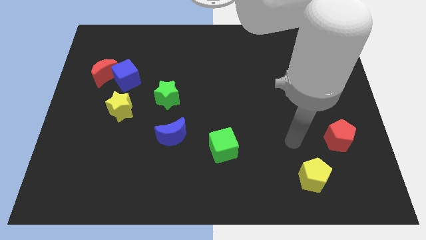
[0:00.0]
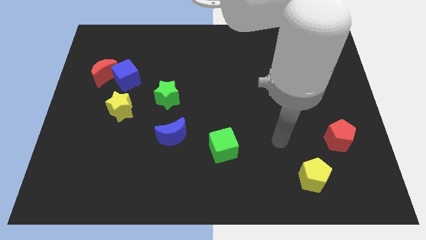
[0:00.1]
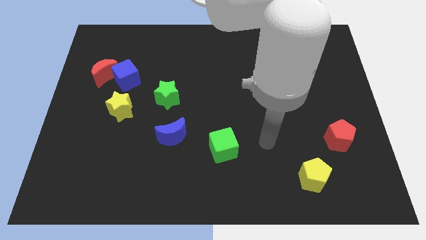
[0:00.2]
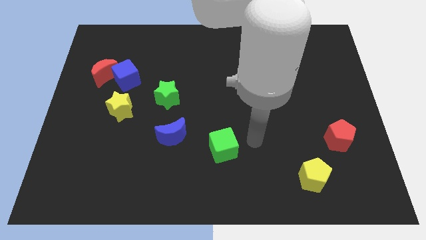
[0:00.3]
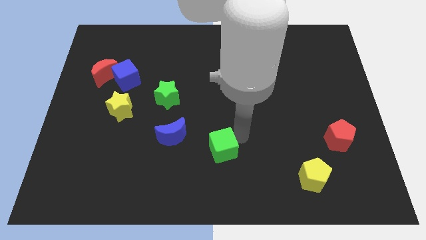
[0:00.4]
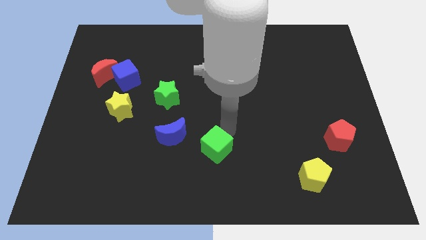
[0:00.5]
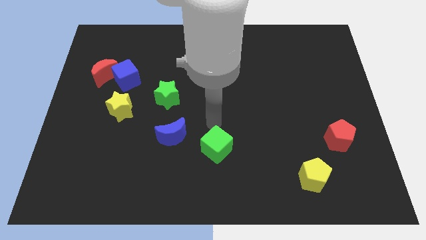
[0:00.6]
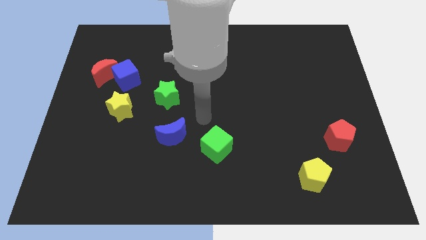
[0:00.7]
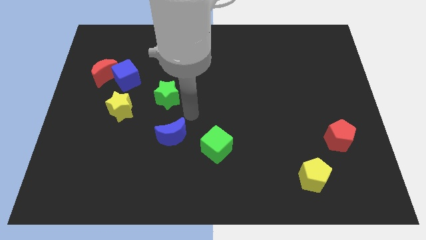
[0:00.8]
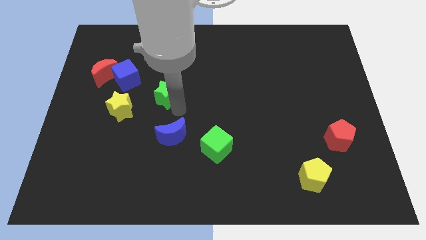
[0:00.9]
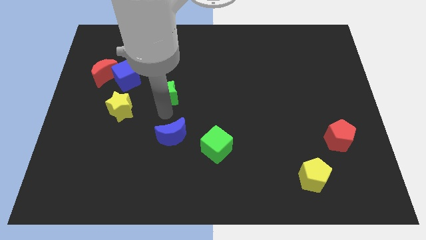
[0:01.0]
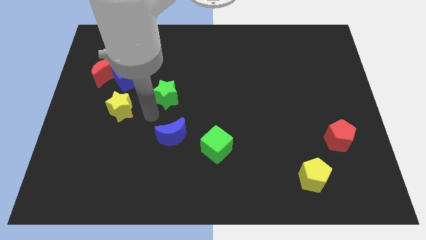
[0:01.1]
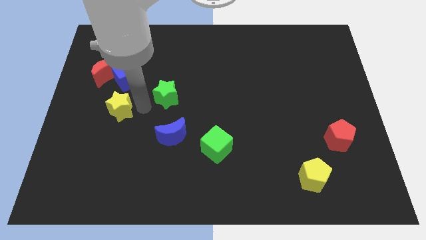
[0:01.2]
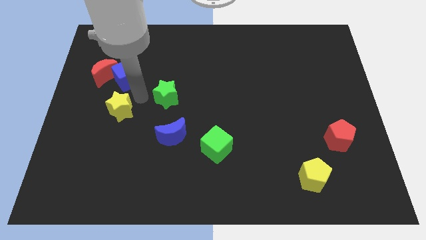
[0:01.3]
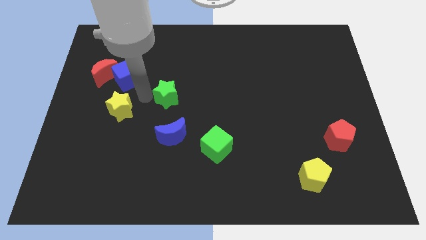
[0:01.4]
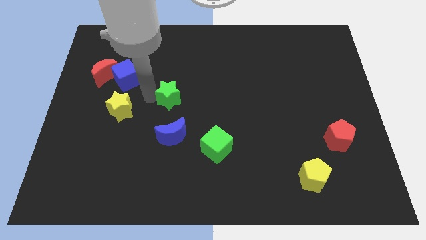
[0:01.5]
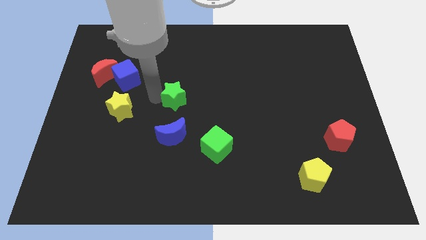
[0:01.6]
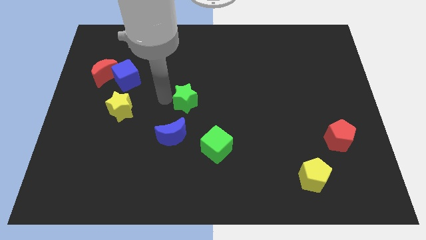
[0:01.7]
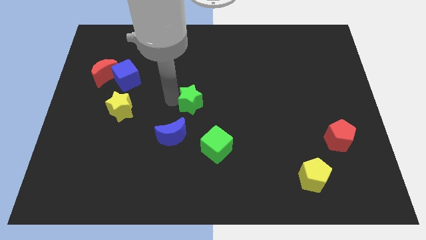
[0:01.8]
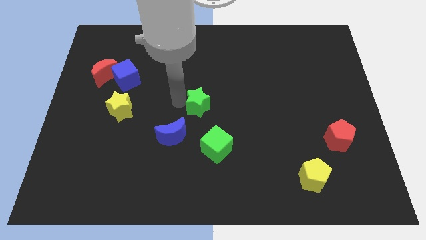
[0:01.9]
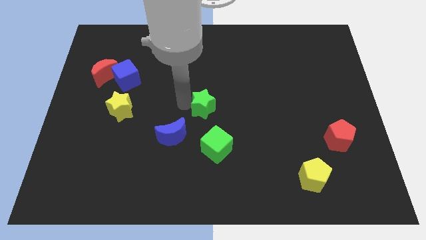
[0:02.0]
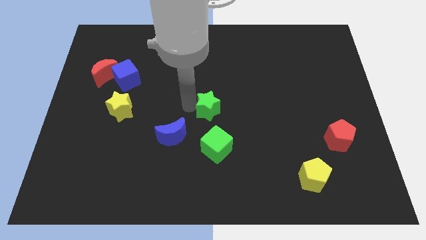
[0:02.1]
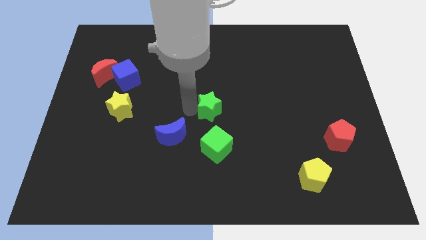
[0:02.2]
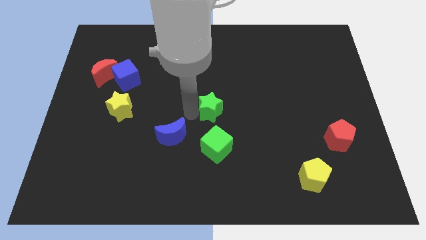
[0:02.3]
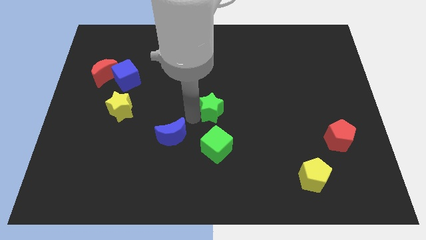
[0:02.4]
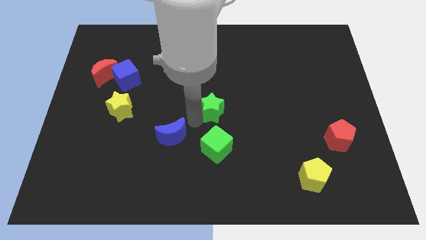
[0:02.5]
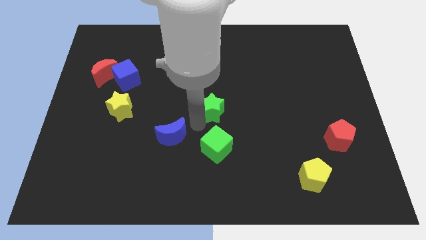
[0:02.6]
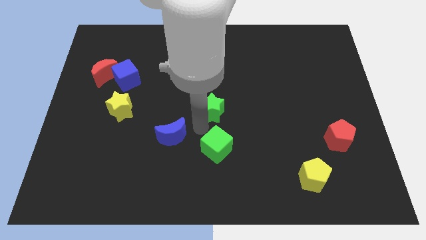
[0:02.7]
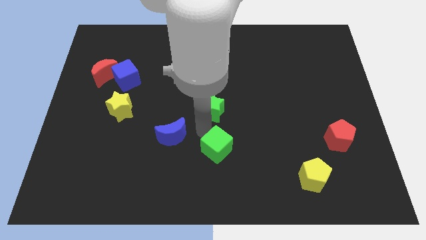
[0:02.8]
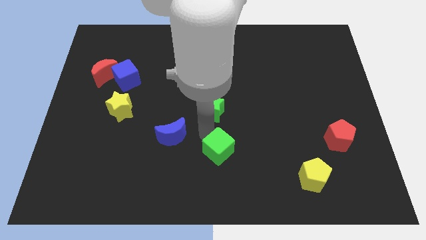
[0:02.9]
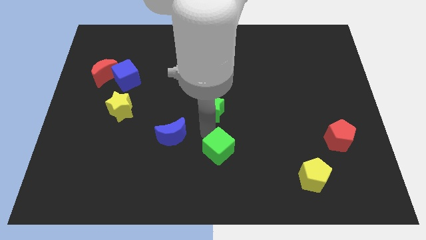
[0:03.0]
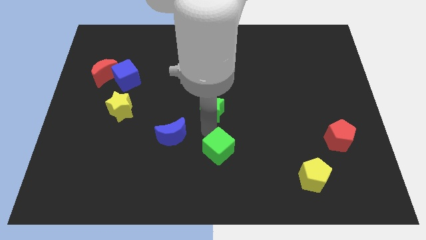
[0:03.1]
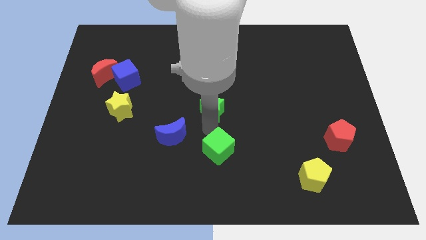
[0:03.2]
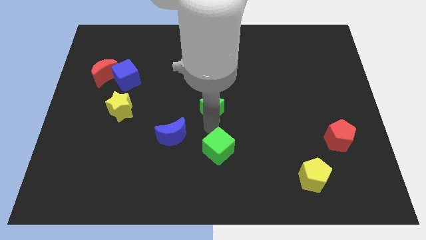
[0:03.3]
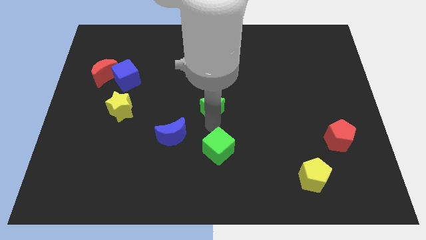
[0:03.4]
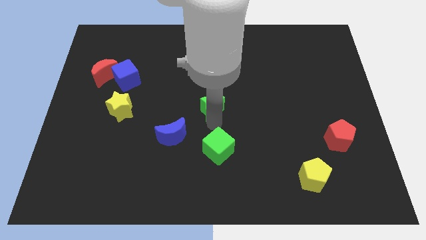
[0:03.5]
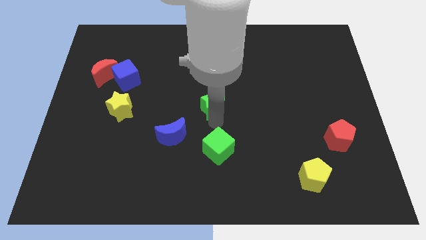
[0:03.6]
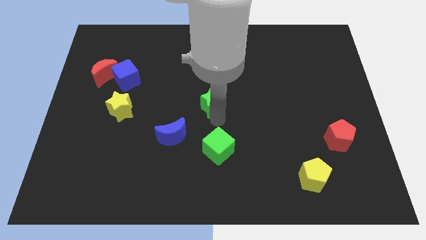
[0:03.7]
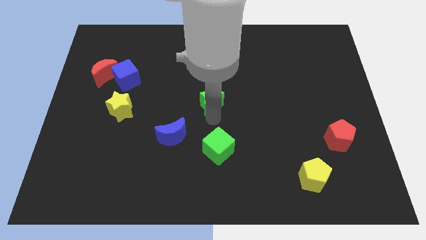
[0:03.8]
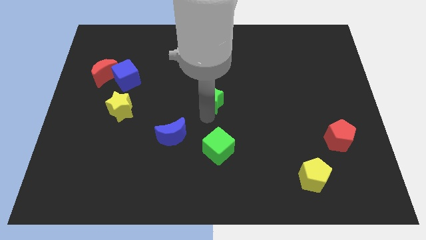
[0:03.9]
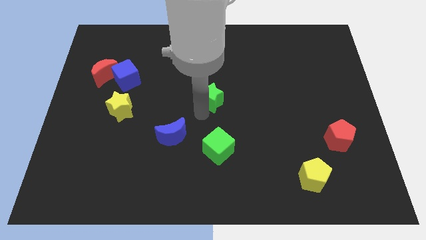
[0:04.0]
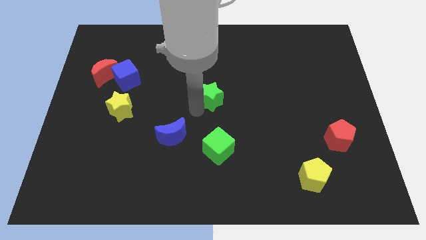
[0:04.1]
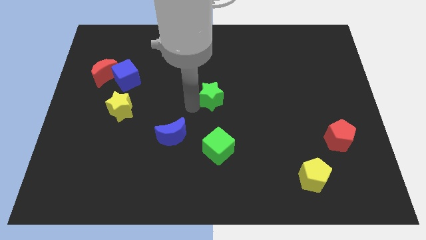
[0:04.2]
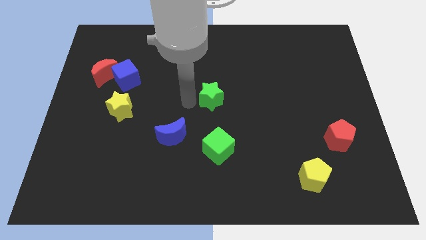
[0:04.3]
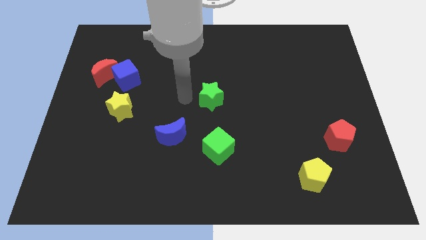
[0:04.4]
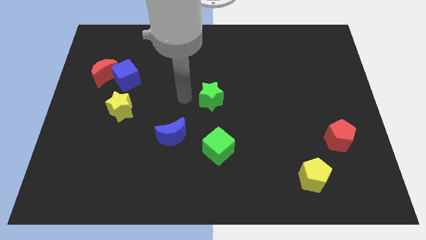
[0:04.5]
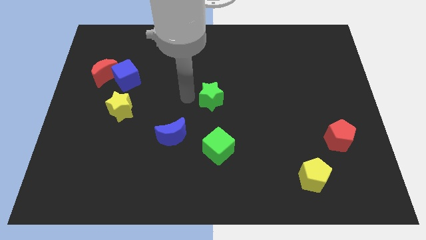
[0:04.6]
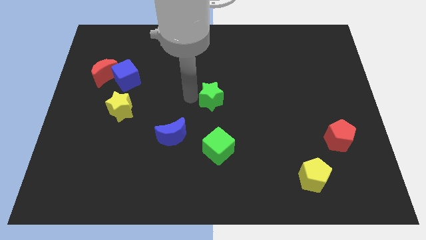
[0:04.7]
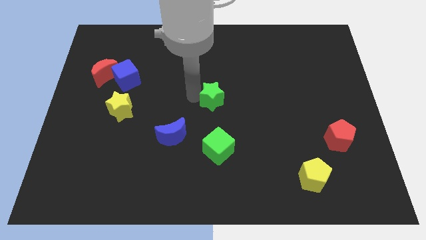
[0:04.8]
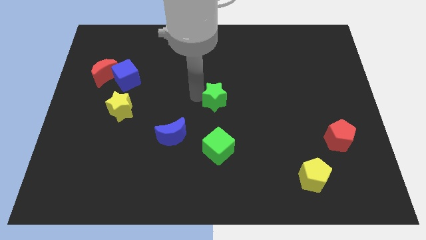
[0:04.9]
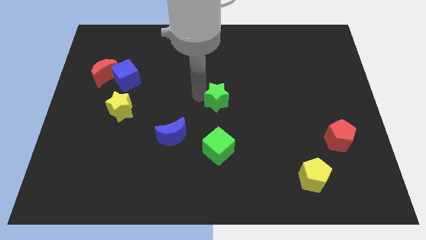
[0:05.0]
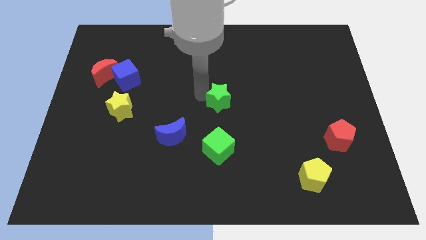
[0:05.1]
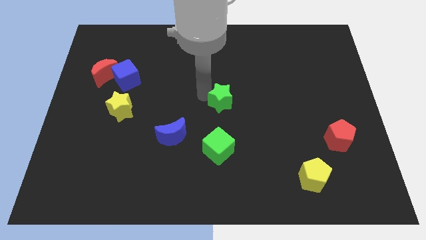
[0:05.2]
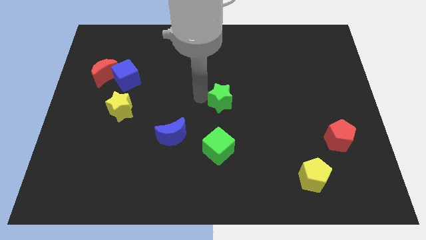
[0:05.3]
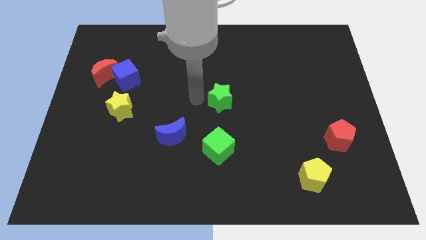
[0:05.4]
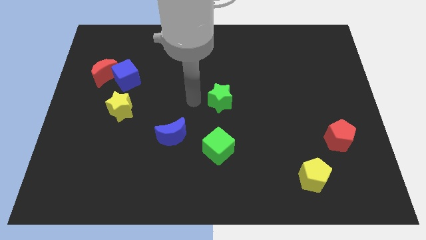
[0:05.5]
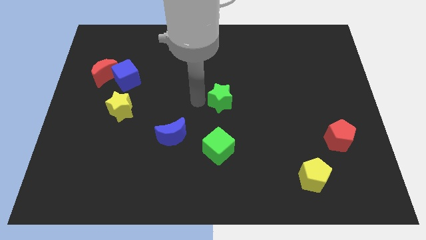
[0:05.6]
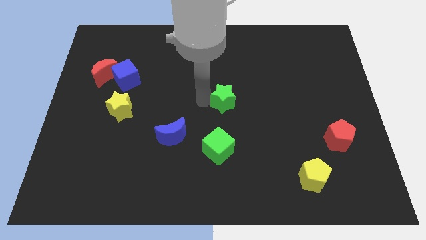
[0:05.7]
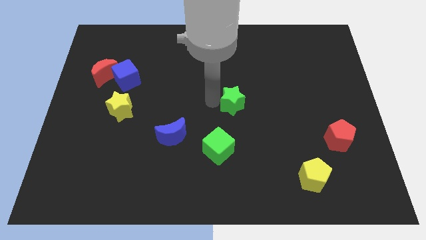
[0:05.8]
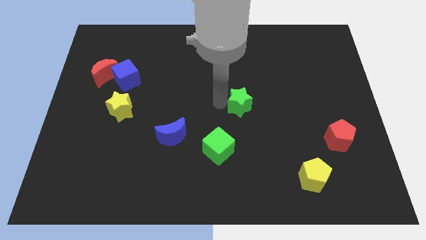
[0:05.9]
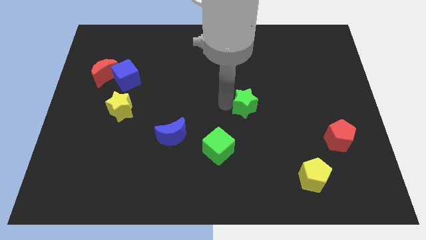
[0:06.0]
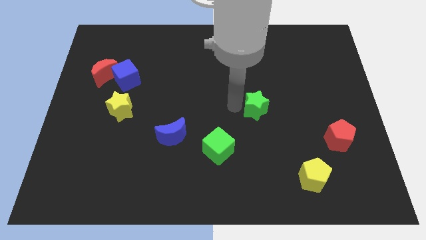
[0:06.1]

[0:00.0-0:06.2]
slide the green star to the right

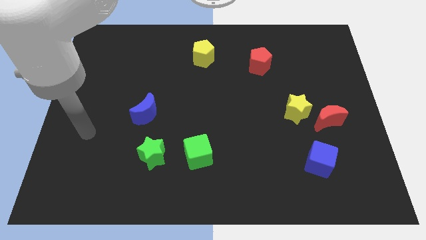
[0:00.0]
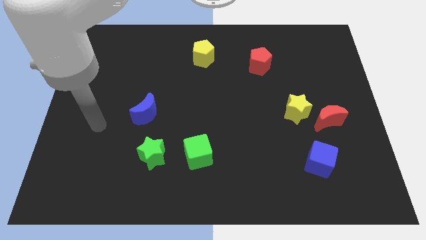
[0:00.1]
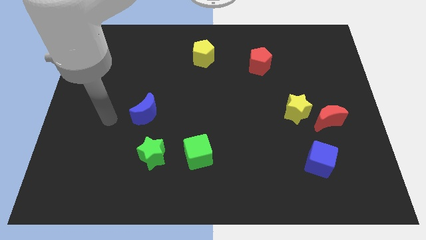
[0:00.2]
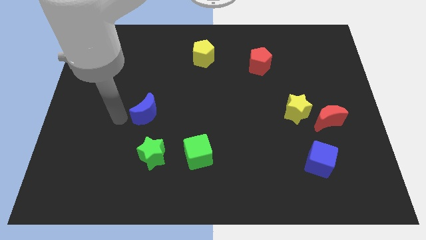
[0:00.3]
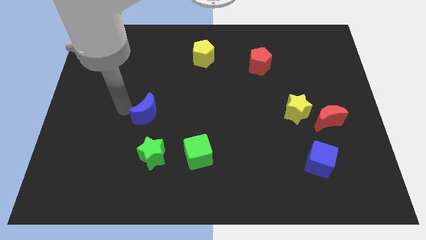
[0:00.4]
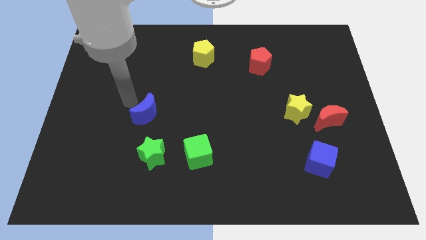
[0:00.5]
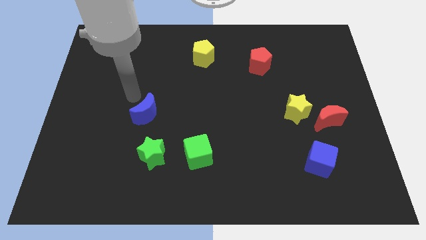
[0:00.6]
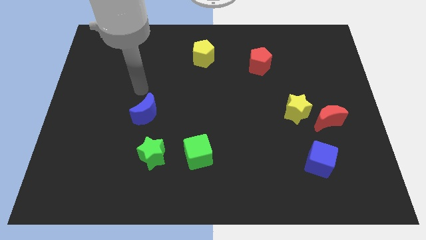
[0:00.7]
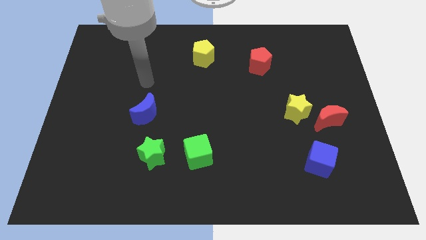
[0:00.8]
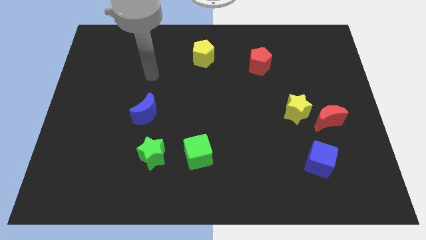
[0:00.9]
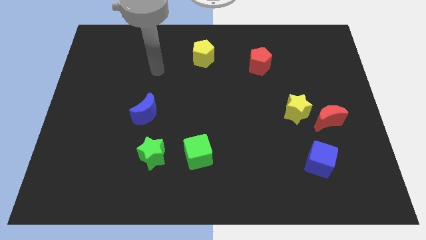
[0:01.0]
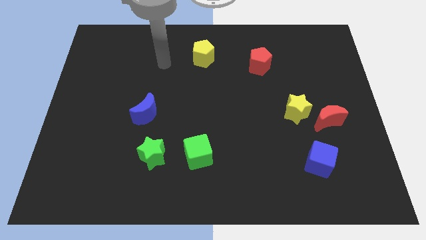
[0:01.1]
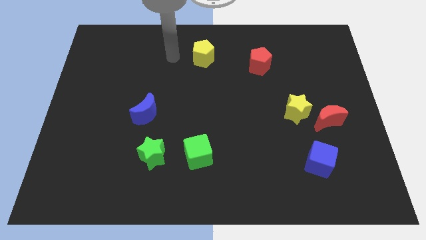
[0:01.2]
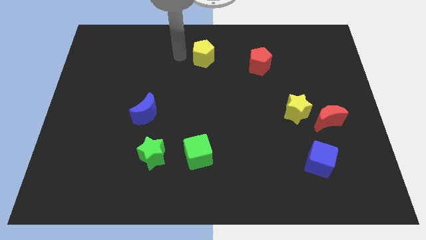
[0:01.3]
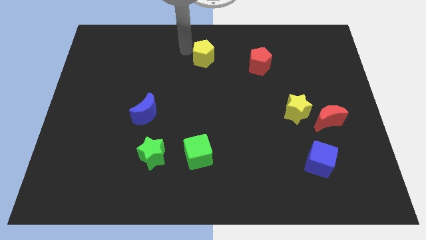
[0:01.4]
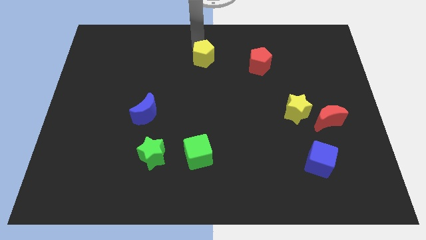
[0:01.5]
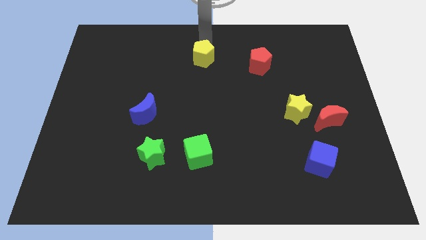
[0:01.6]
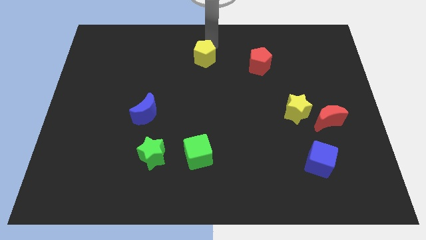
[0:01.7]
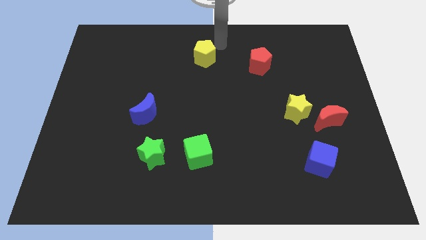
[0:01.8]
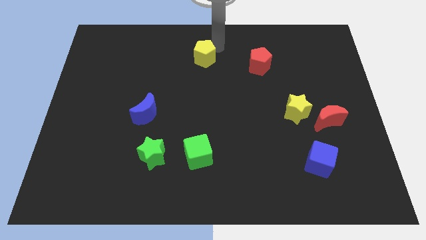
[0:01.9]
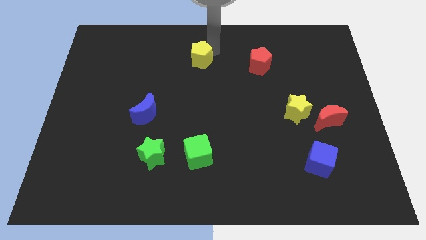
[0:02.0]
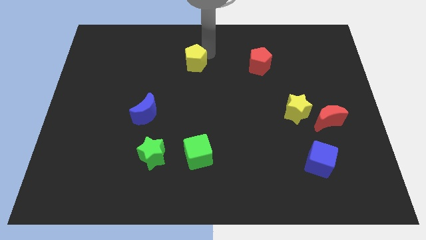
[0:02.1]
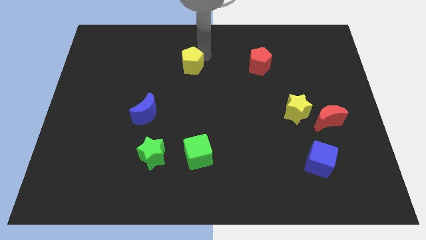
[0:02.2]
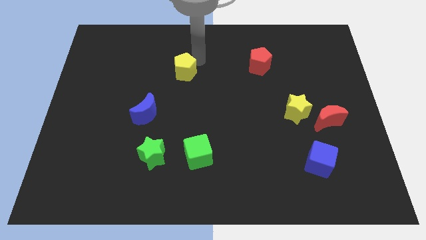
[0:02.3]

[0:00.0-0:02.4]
push the yellow pentagon slightly down and left diagonally
